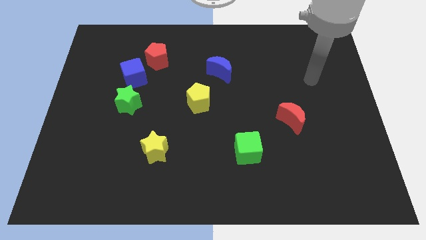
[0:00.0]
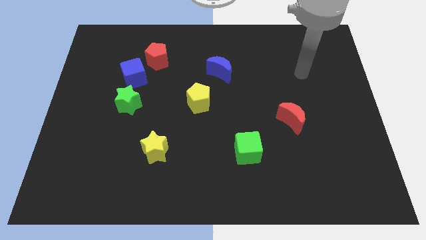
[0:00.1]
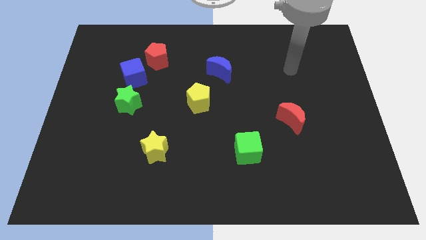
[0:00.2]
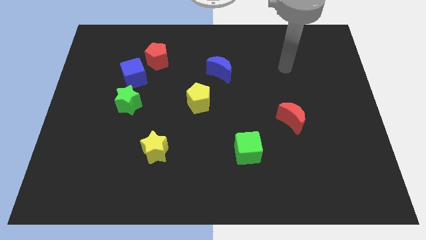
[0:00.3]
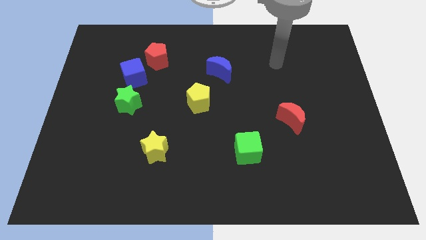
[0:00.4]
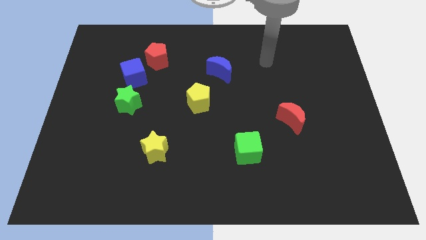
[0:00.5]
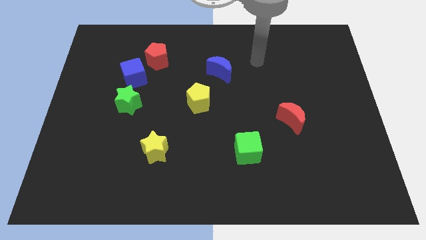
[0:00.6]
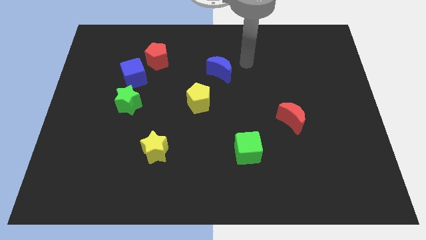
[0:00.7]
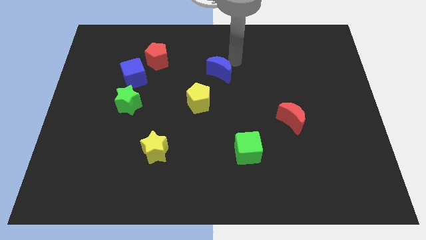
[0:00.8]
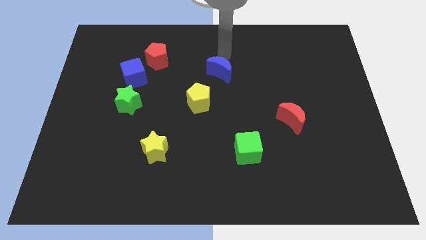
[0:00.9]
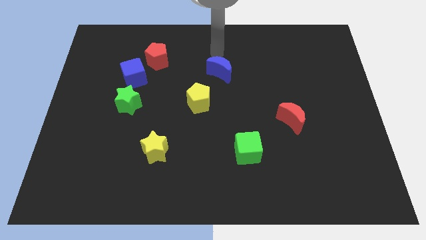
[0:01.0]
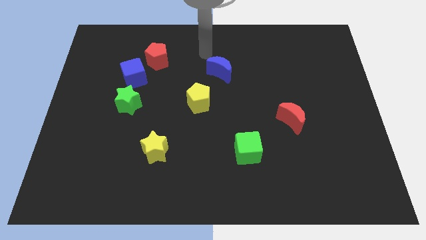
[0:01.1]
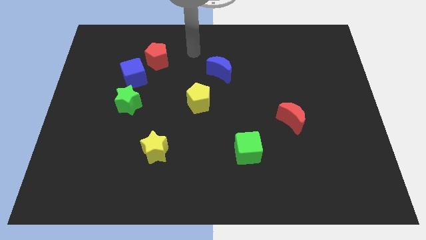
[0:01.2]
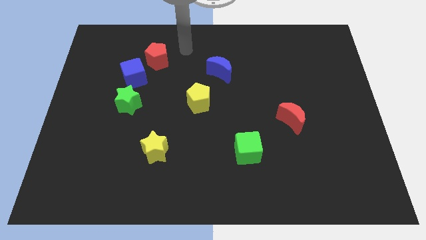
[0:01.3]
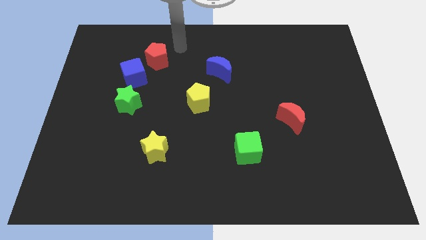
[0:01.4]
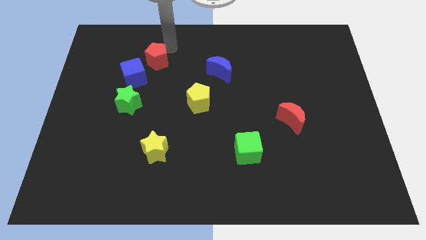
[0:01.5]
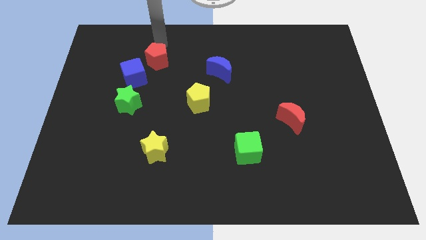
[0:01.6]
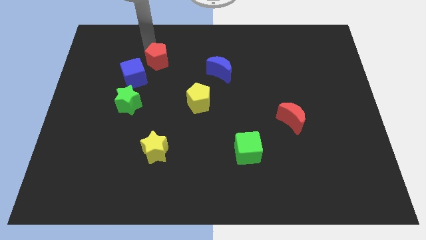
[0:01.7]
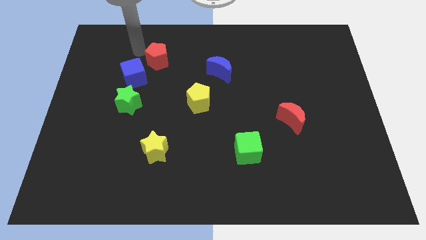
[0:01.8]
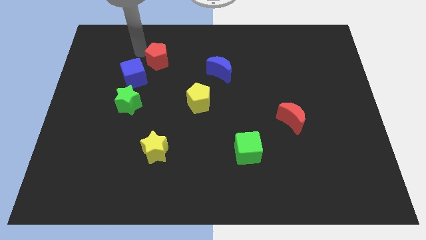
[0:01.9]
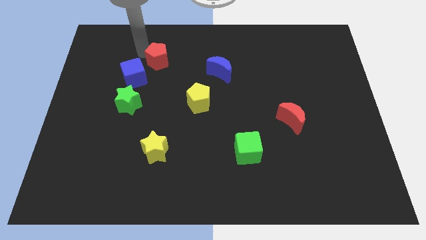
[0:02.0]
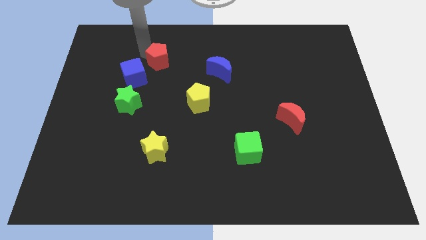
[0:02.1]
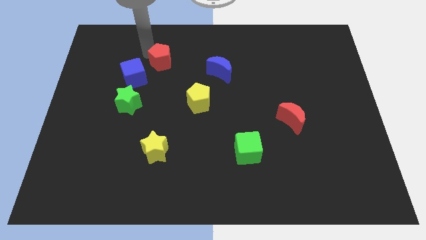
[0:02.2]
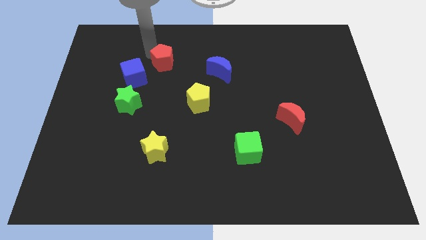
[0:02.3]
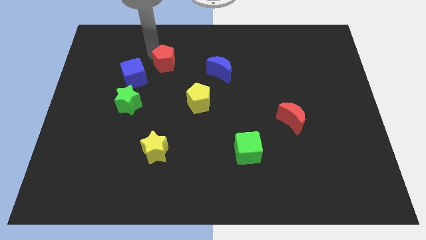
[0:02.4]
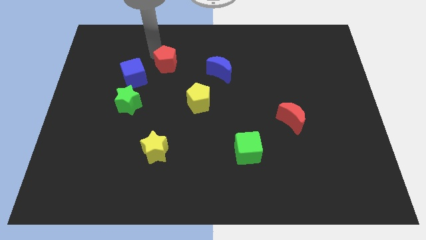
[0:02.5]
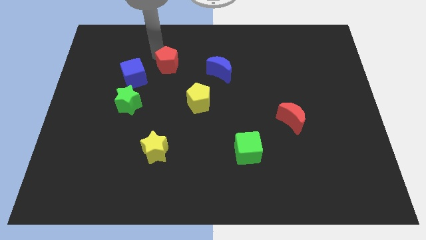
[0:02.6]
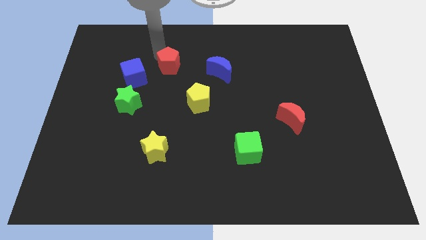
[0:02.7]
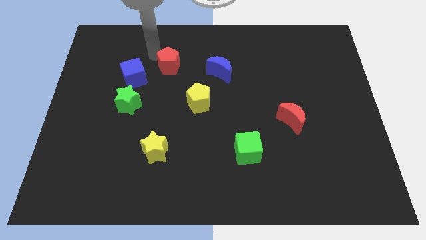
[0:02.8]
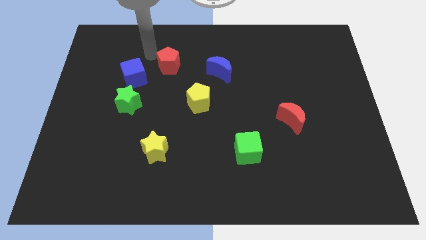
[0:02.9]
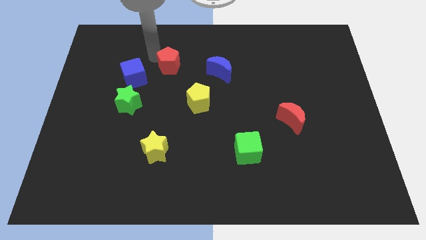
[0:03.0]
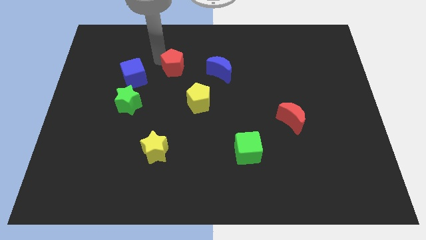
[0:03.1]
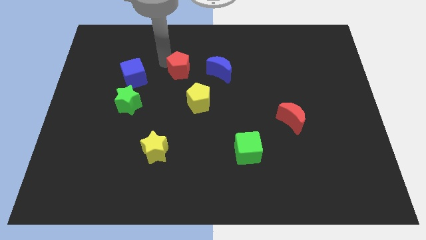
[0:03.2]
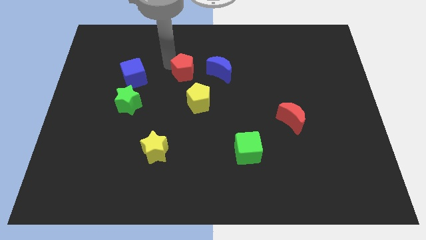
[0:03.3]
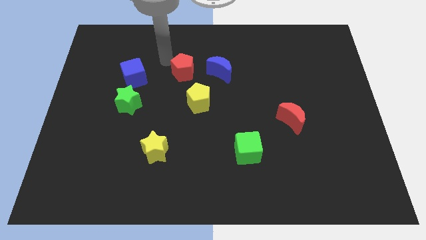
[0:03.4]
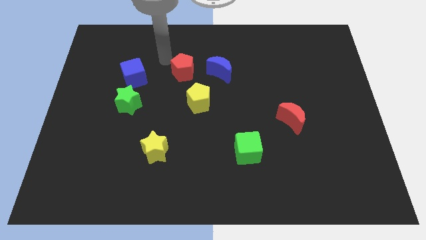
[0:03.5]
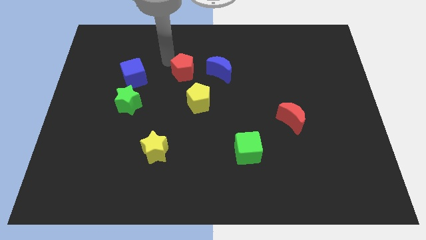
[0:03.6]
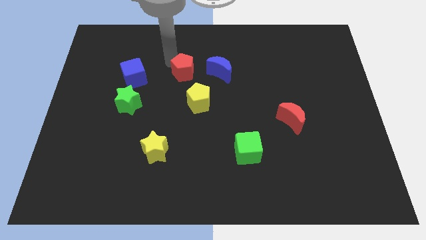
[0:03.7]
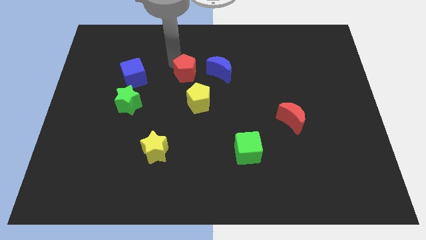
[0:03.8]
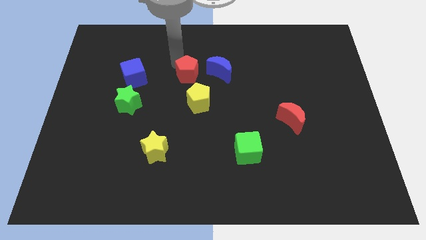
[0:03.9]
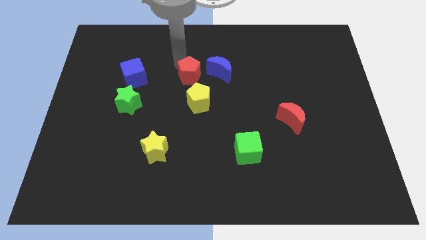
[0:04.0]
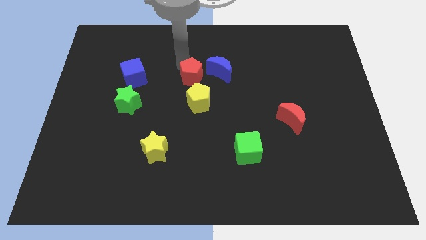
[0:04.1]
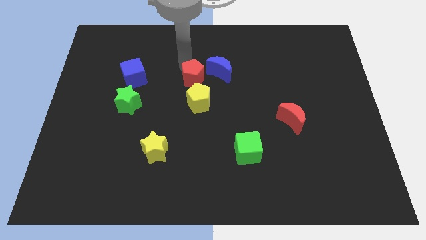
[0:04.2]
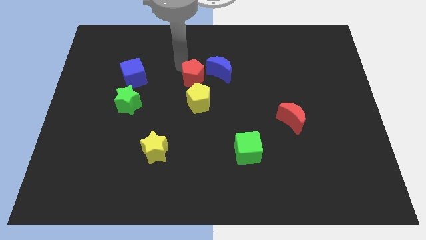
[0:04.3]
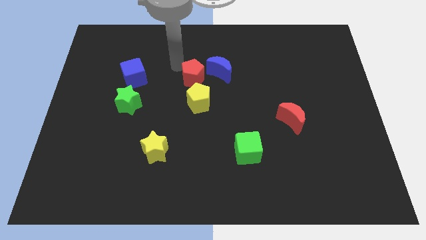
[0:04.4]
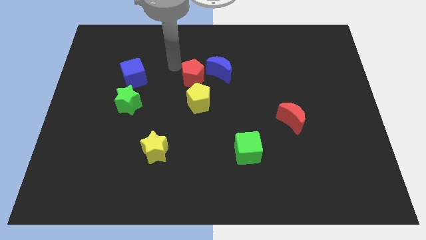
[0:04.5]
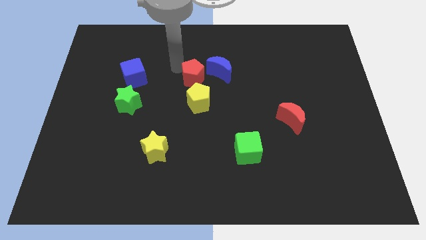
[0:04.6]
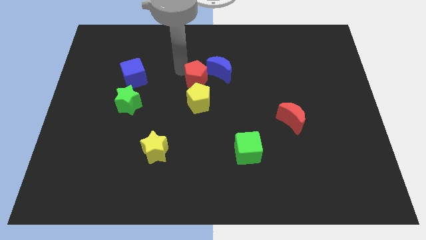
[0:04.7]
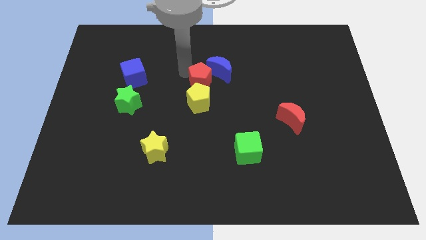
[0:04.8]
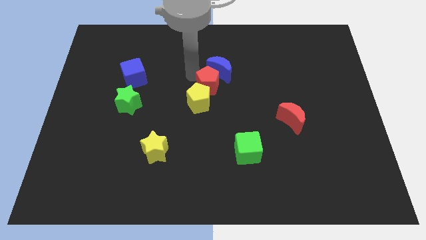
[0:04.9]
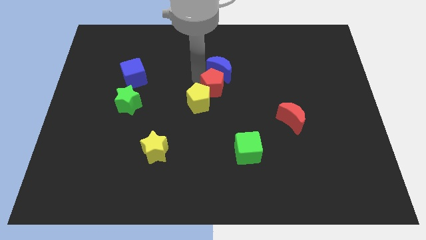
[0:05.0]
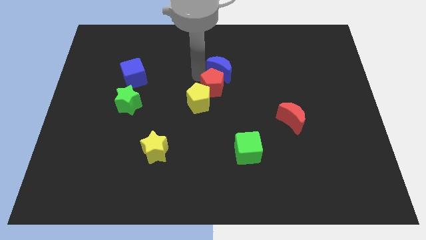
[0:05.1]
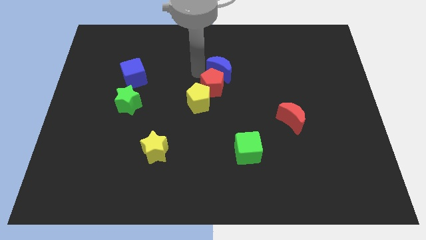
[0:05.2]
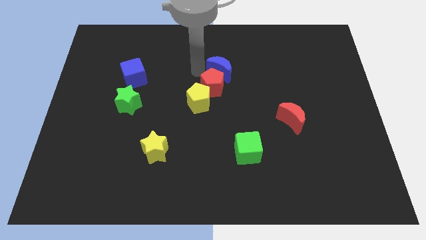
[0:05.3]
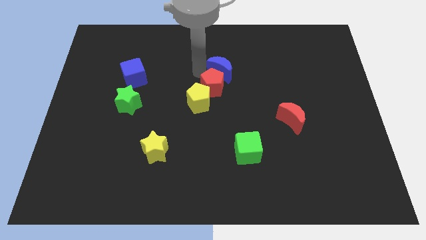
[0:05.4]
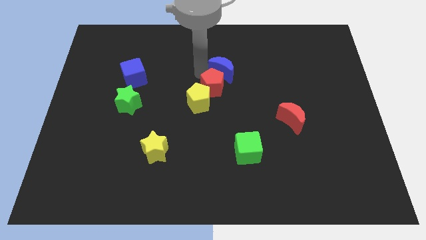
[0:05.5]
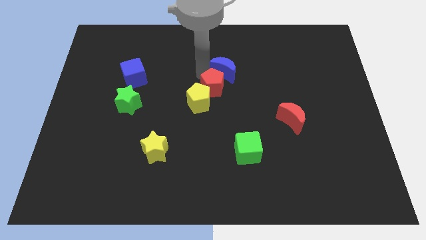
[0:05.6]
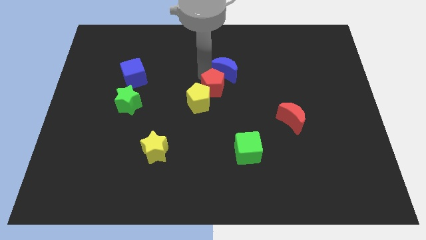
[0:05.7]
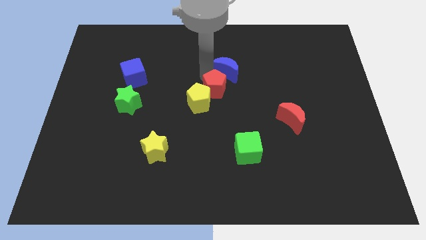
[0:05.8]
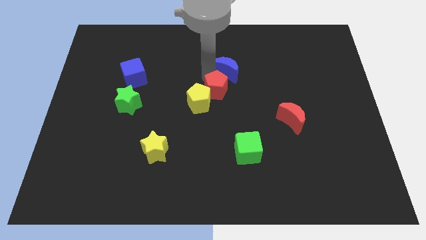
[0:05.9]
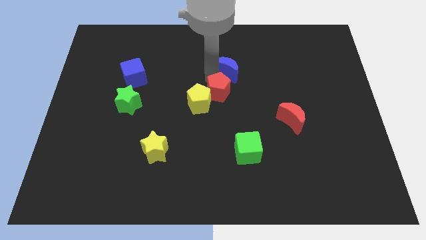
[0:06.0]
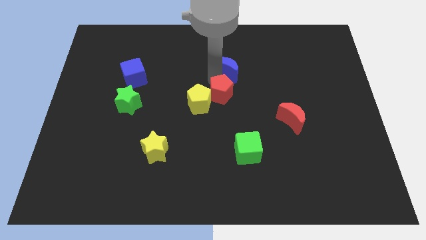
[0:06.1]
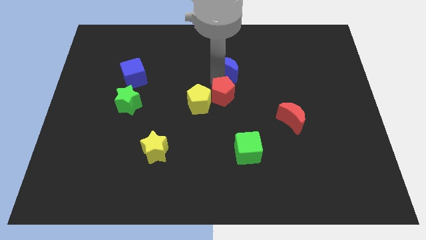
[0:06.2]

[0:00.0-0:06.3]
push the red pentagon downwards and right

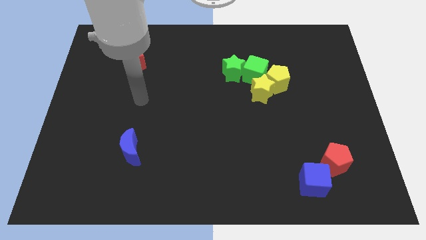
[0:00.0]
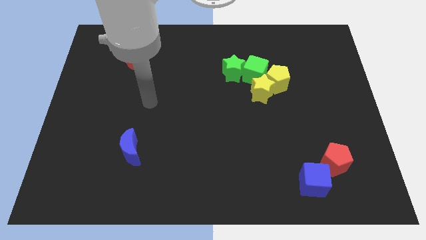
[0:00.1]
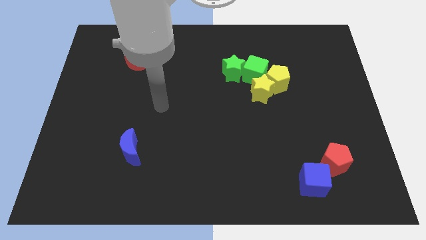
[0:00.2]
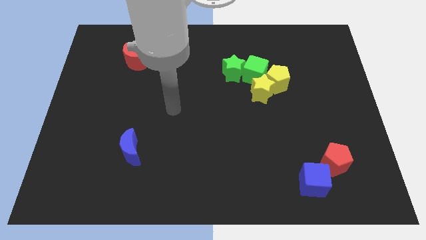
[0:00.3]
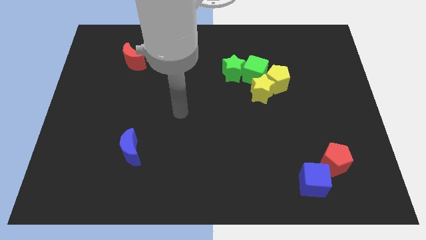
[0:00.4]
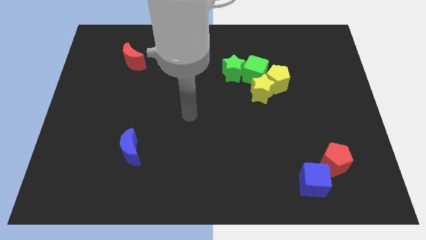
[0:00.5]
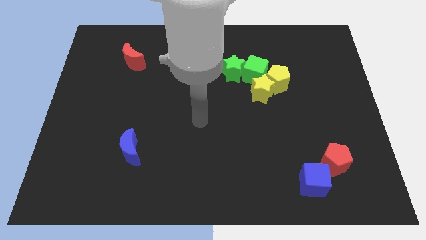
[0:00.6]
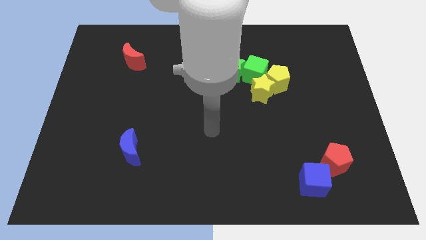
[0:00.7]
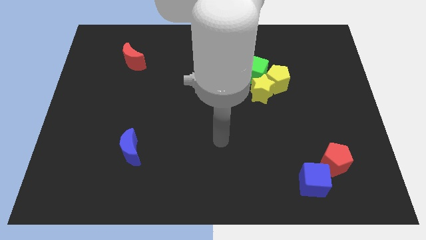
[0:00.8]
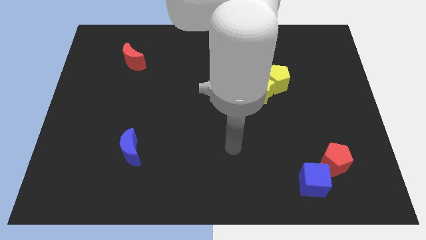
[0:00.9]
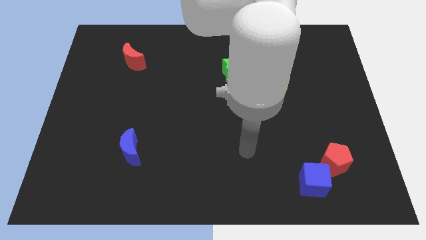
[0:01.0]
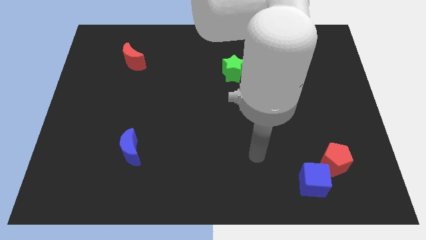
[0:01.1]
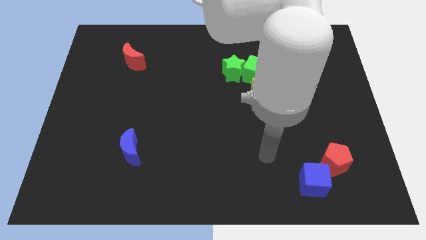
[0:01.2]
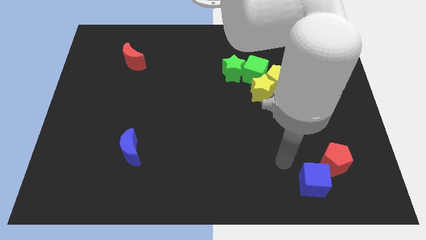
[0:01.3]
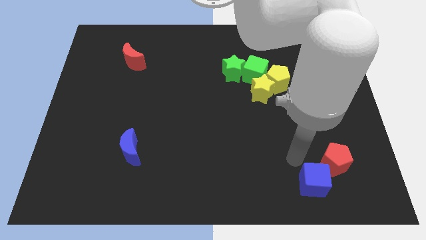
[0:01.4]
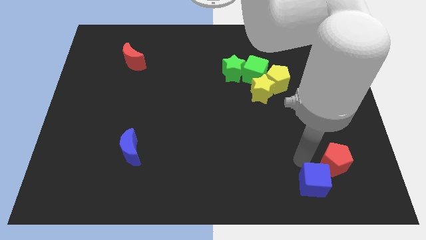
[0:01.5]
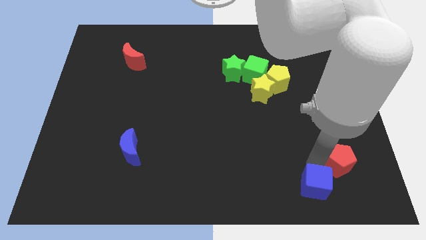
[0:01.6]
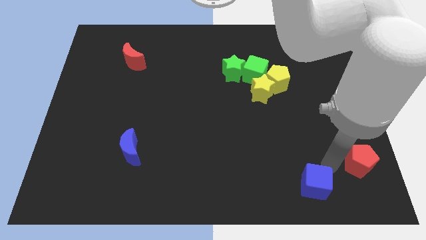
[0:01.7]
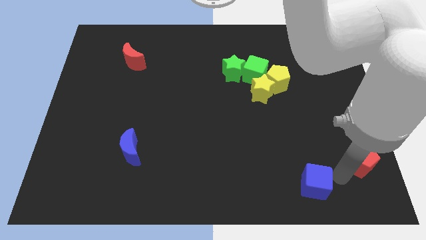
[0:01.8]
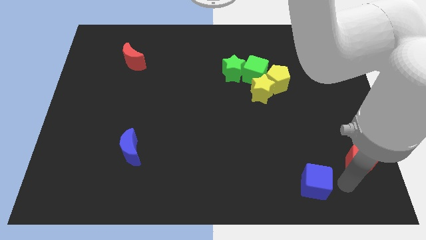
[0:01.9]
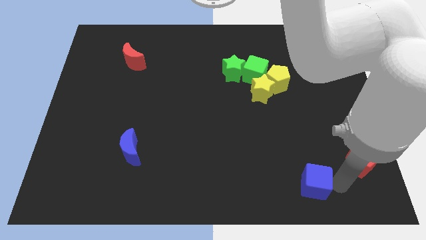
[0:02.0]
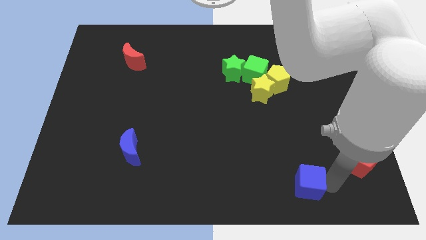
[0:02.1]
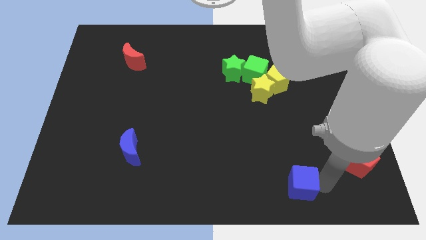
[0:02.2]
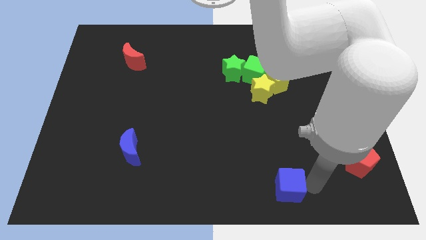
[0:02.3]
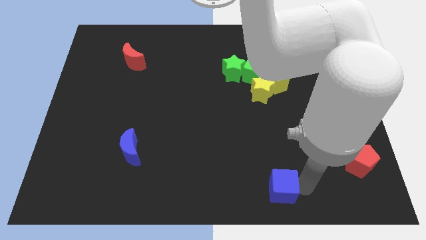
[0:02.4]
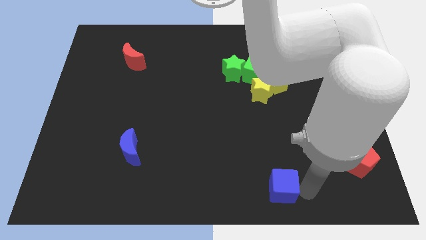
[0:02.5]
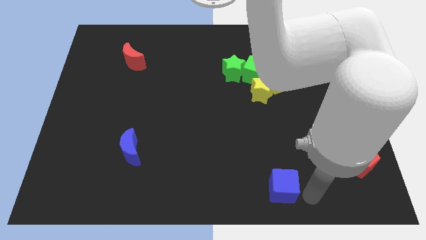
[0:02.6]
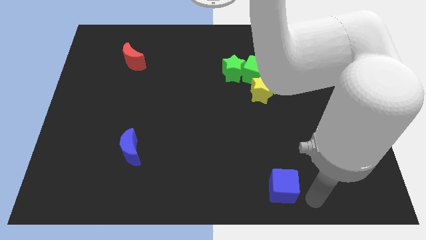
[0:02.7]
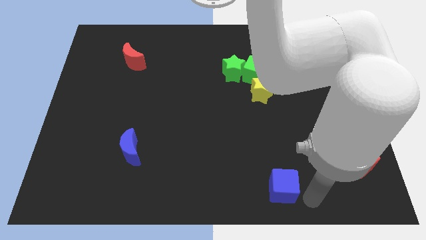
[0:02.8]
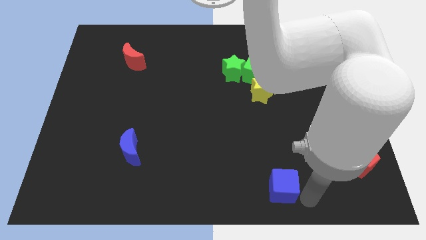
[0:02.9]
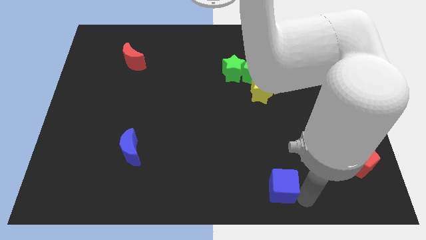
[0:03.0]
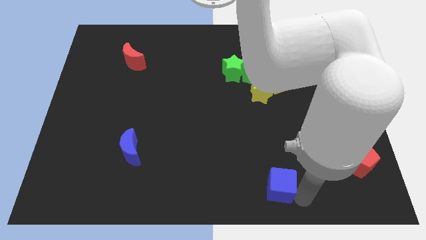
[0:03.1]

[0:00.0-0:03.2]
slide the blue cube left a little bit
